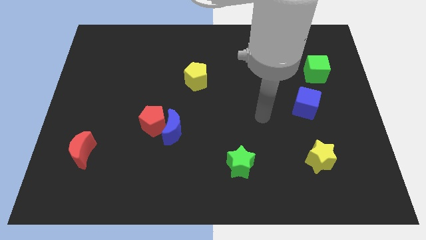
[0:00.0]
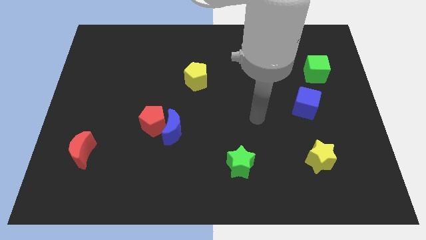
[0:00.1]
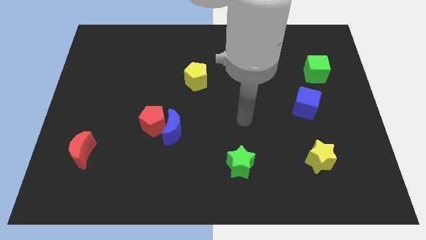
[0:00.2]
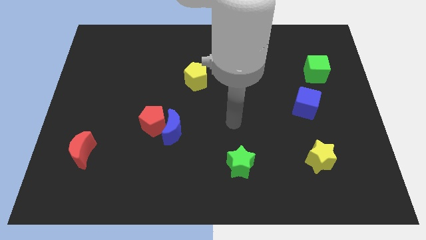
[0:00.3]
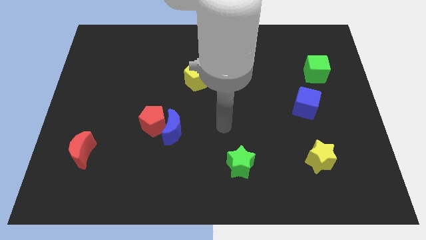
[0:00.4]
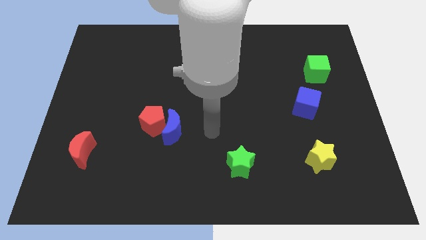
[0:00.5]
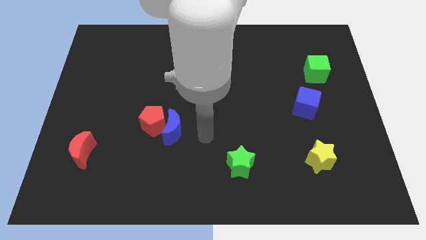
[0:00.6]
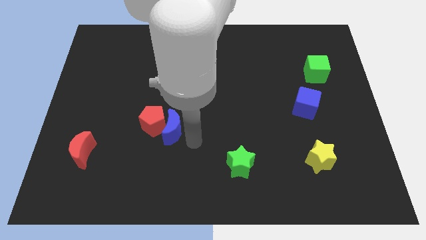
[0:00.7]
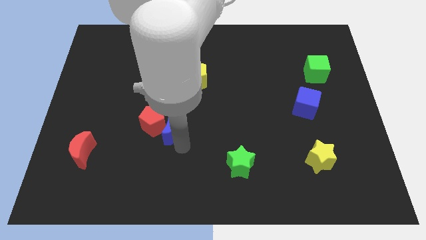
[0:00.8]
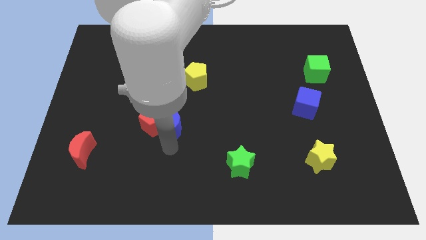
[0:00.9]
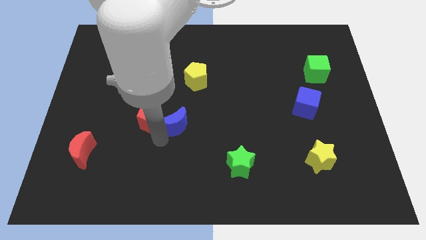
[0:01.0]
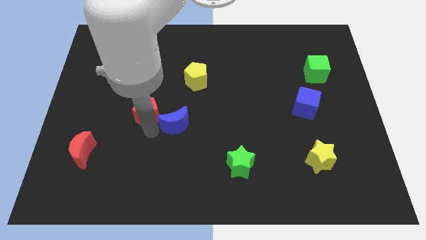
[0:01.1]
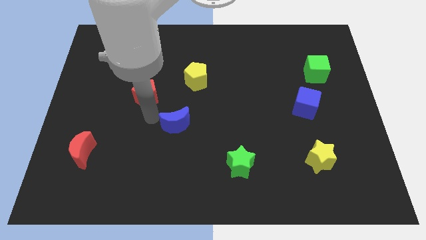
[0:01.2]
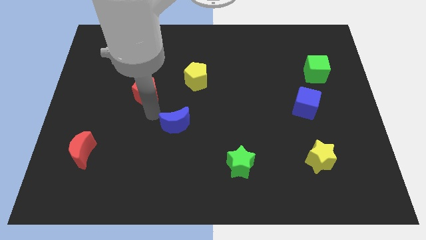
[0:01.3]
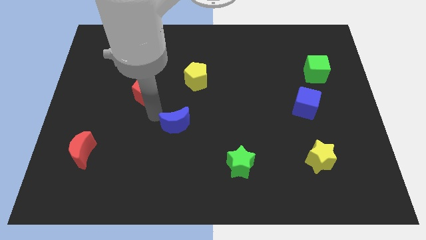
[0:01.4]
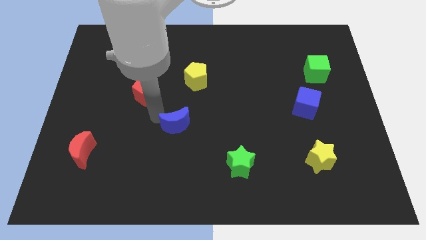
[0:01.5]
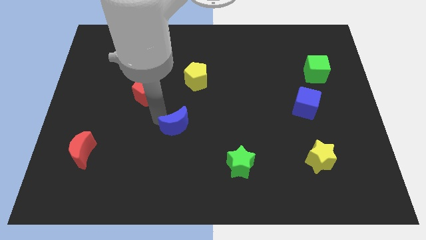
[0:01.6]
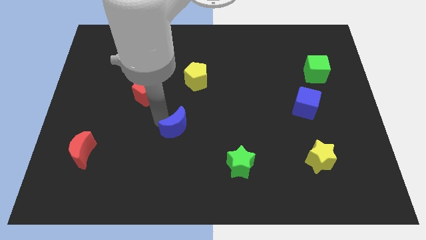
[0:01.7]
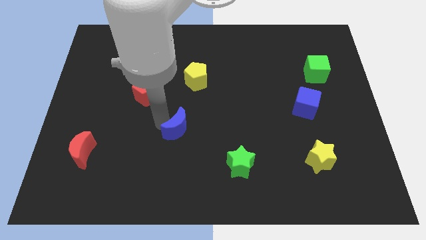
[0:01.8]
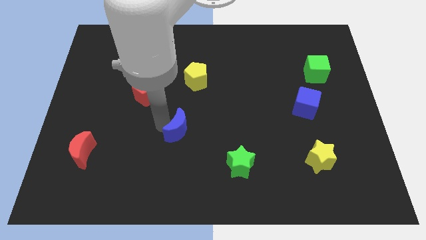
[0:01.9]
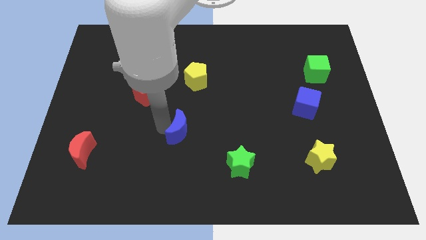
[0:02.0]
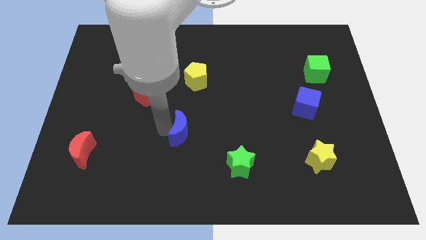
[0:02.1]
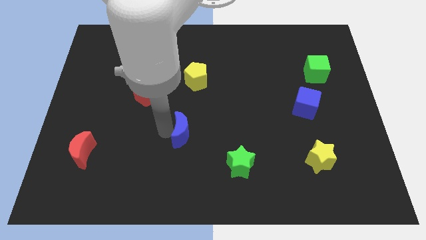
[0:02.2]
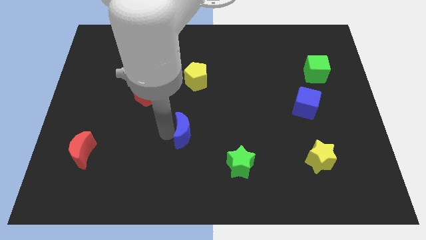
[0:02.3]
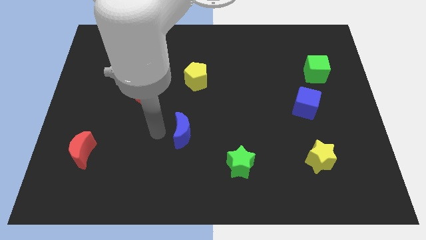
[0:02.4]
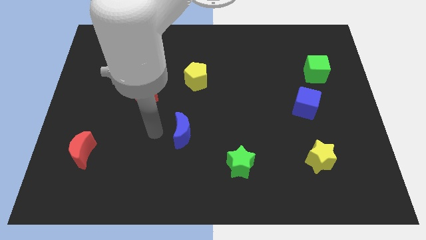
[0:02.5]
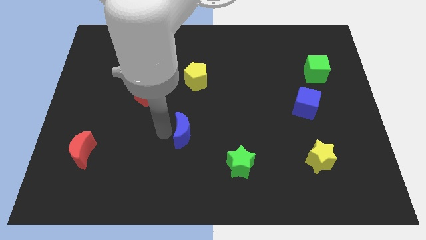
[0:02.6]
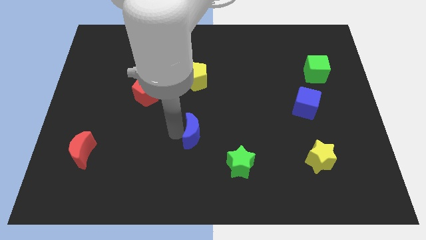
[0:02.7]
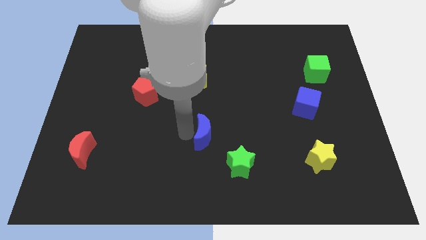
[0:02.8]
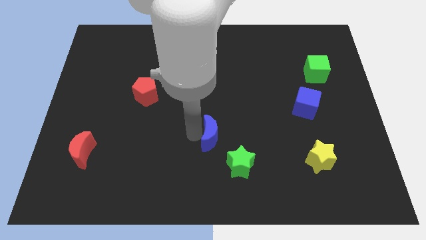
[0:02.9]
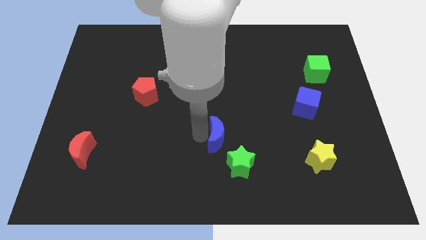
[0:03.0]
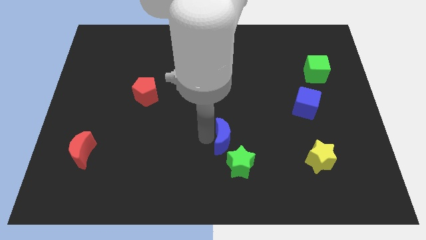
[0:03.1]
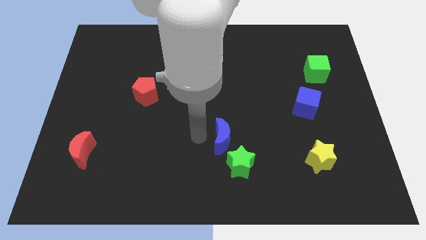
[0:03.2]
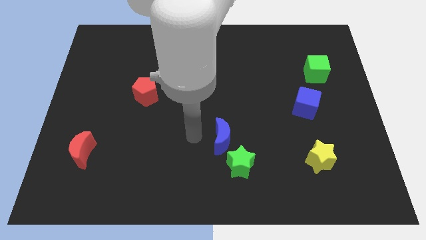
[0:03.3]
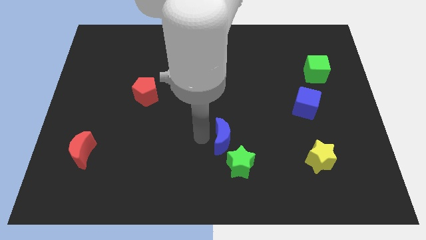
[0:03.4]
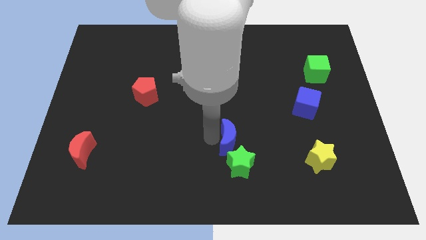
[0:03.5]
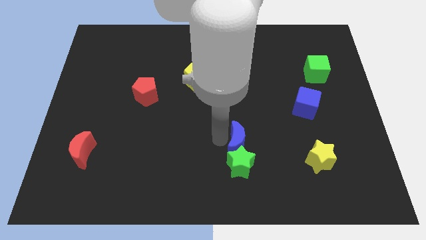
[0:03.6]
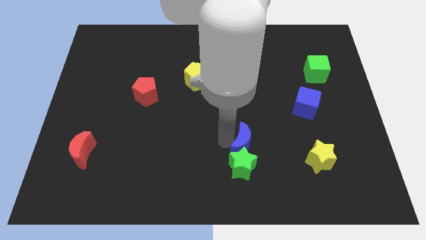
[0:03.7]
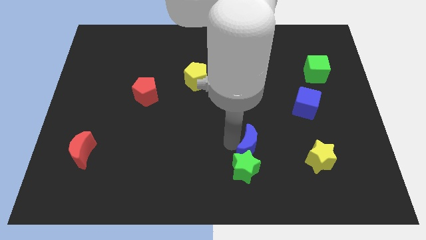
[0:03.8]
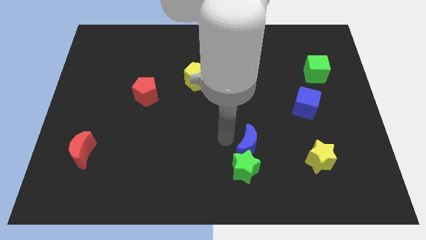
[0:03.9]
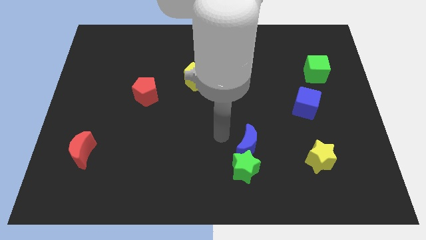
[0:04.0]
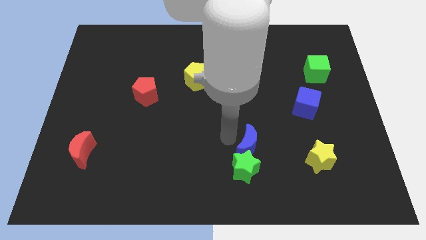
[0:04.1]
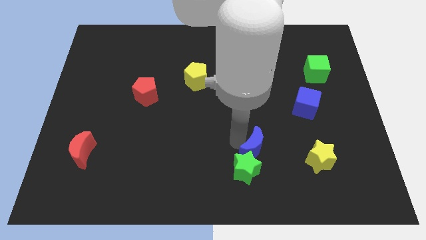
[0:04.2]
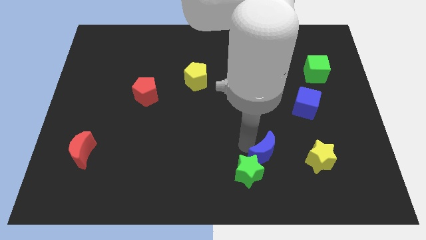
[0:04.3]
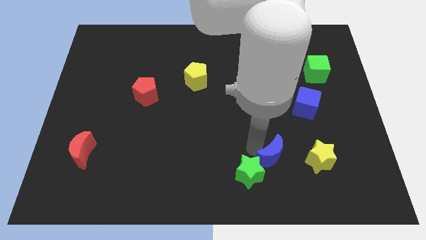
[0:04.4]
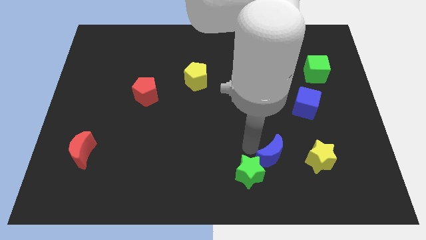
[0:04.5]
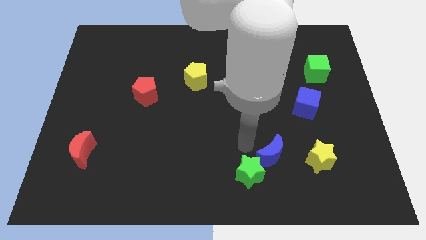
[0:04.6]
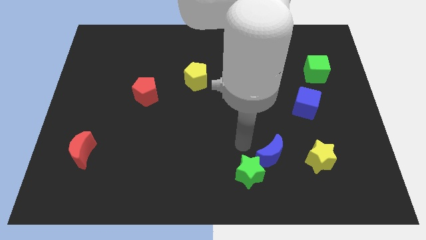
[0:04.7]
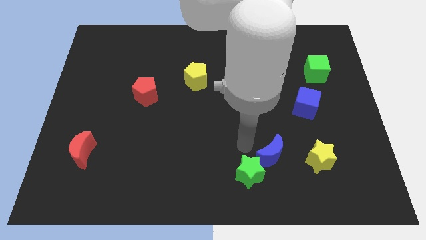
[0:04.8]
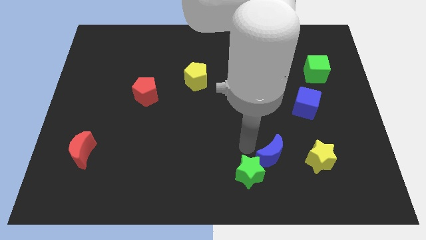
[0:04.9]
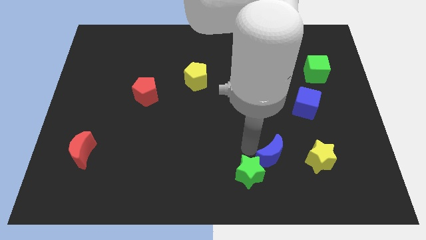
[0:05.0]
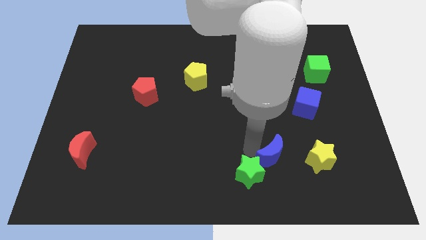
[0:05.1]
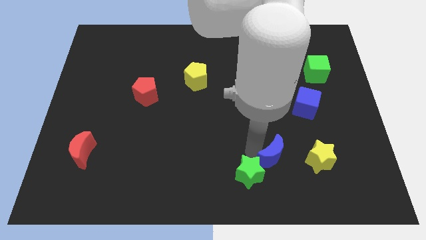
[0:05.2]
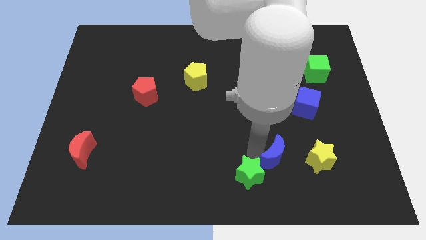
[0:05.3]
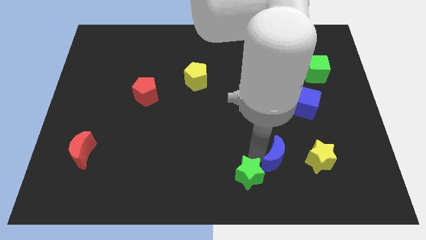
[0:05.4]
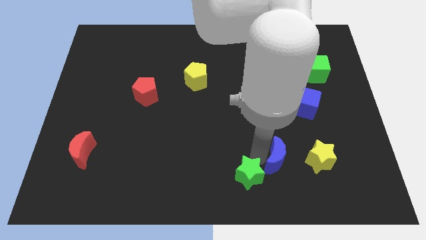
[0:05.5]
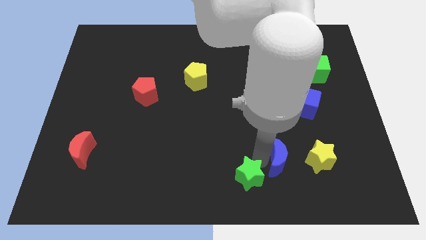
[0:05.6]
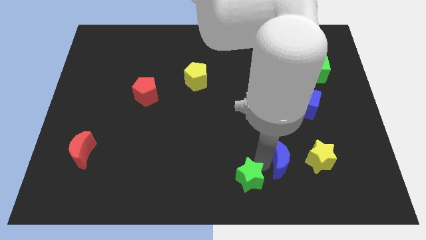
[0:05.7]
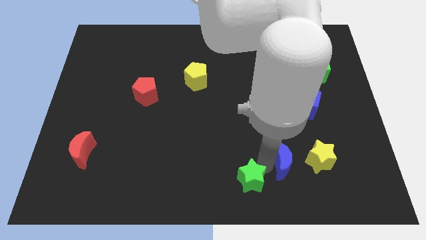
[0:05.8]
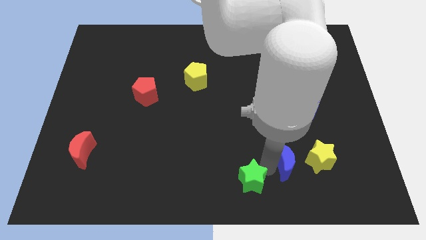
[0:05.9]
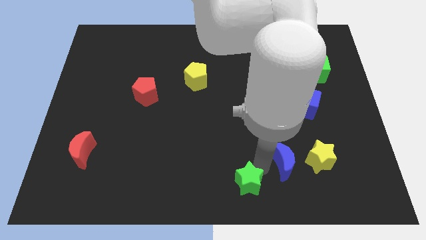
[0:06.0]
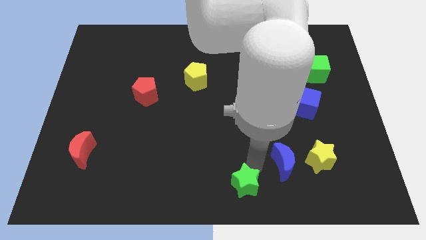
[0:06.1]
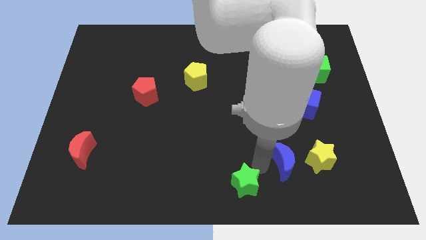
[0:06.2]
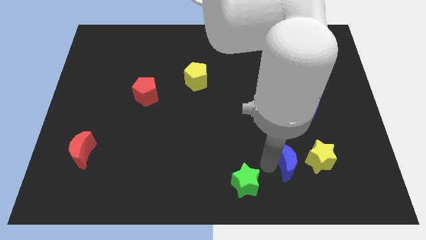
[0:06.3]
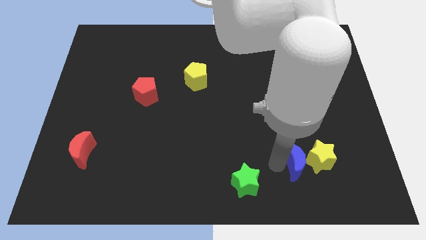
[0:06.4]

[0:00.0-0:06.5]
put the blue moon close to the yellow star

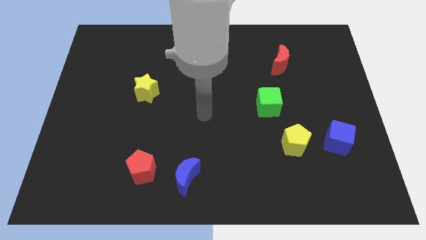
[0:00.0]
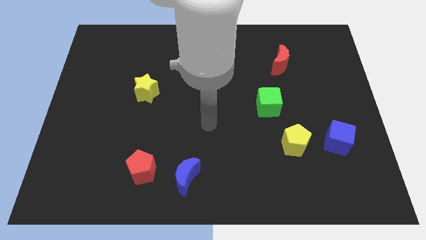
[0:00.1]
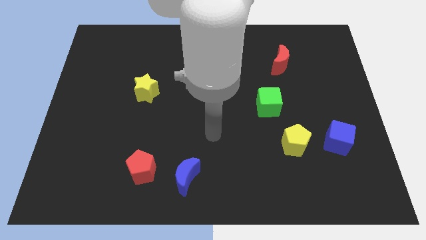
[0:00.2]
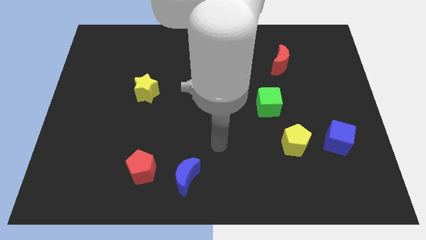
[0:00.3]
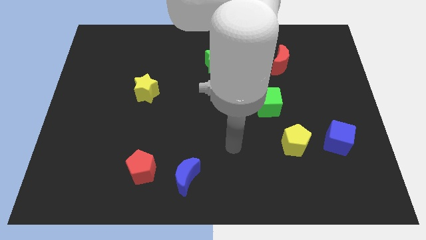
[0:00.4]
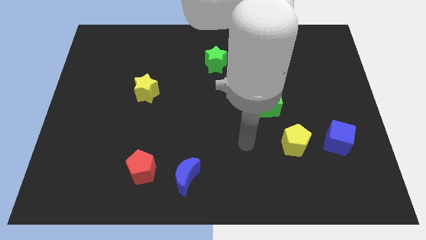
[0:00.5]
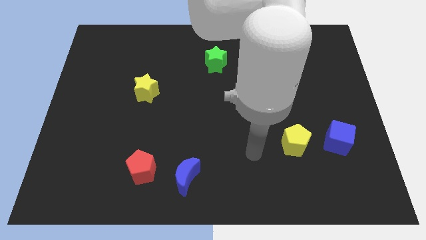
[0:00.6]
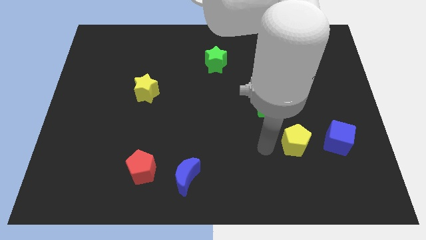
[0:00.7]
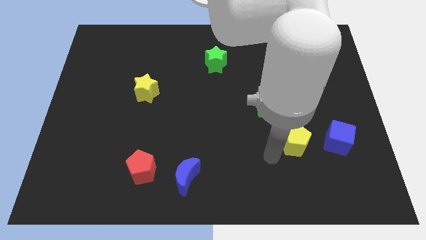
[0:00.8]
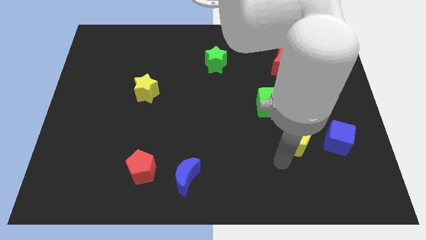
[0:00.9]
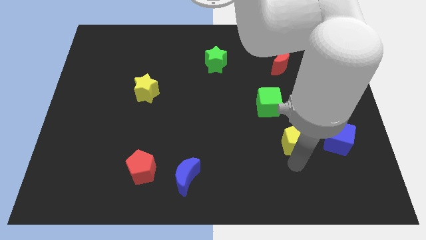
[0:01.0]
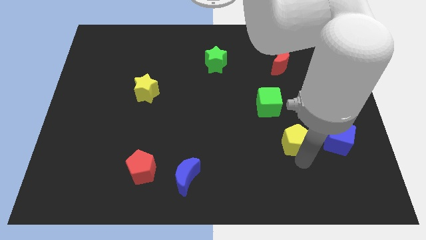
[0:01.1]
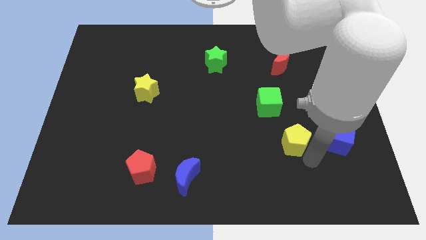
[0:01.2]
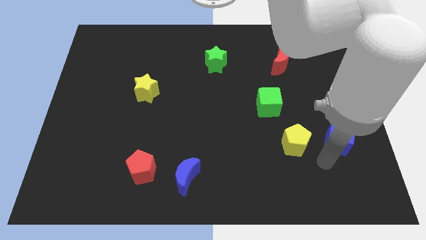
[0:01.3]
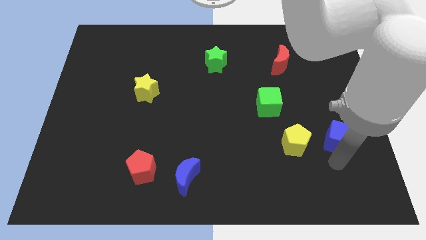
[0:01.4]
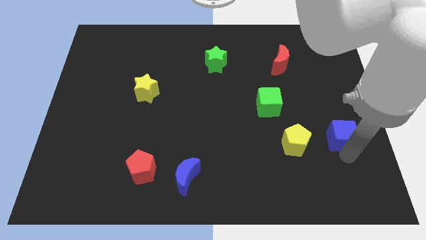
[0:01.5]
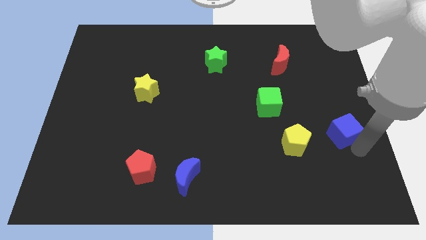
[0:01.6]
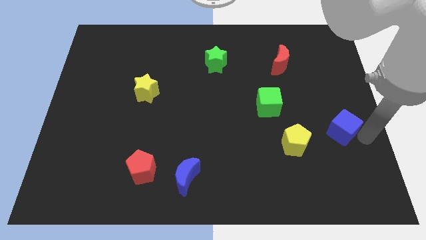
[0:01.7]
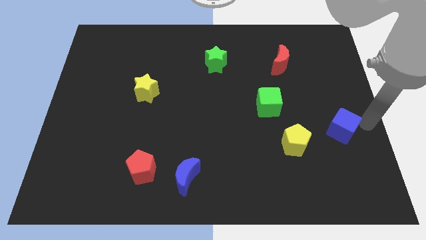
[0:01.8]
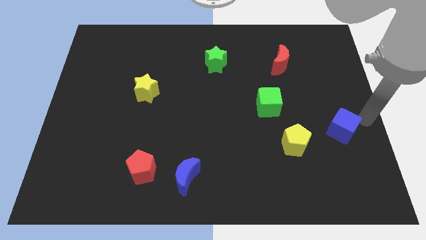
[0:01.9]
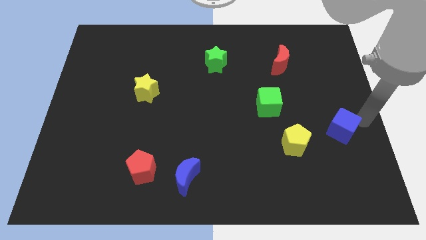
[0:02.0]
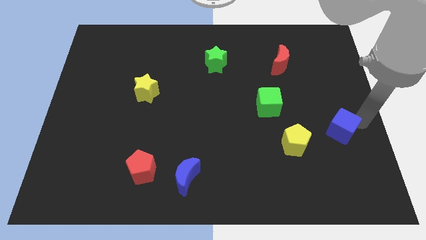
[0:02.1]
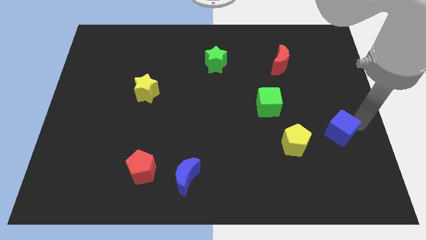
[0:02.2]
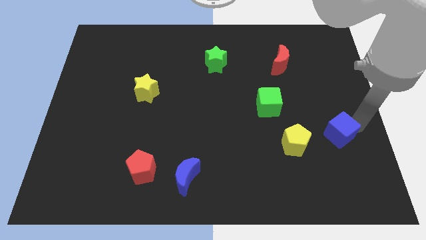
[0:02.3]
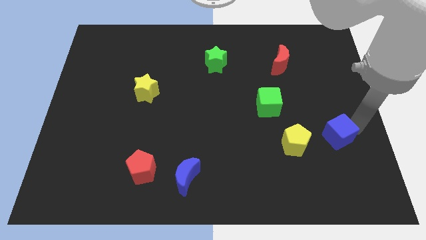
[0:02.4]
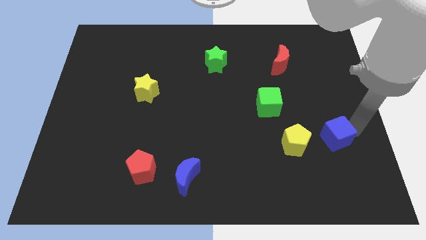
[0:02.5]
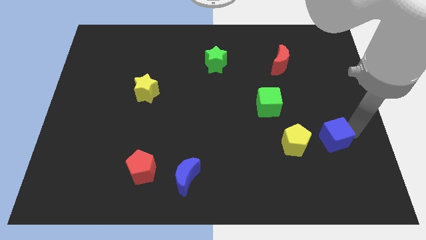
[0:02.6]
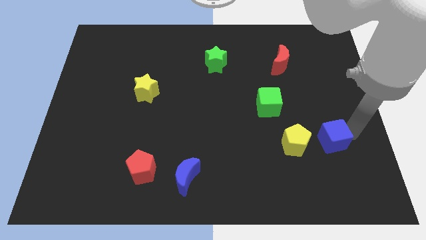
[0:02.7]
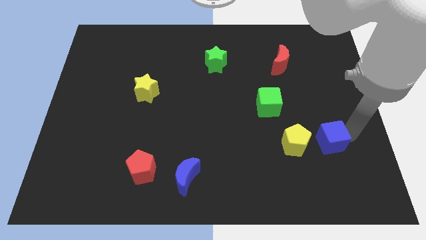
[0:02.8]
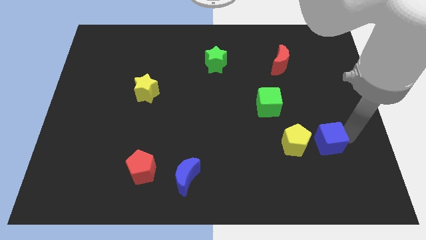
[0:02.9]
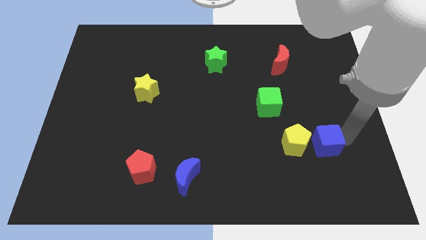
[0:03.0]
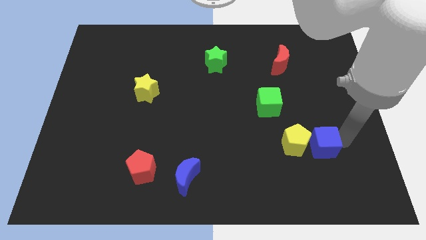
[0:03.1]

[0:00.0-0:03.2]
move the blue cube to the yellow pentagon
